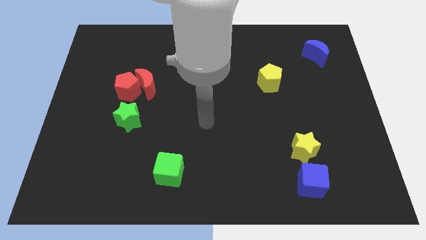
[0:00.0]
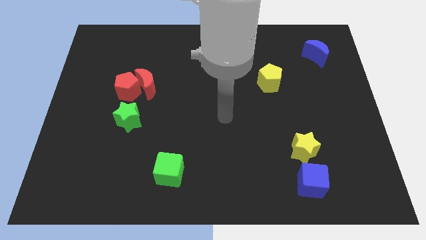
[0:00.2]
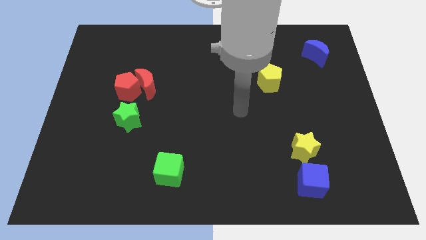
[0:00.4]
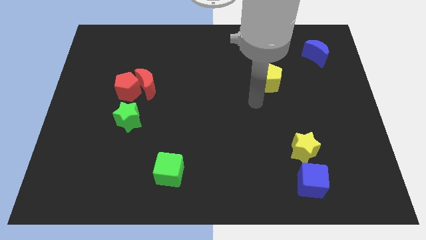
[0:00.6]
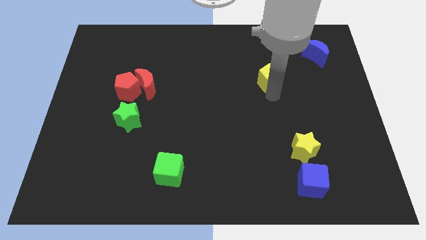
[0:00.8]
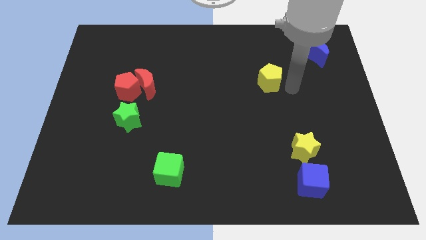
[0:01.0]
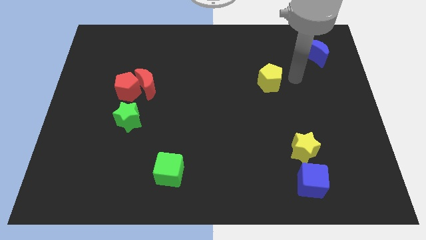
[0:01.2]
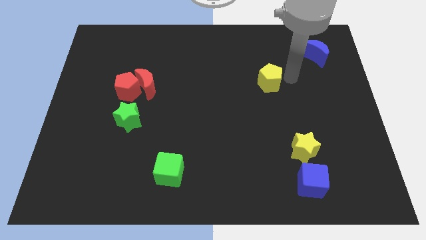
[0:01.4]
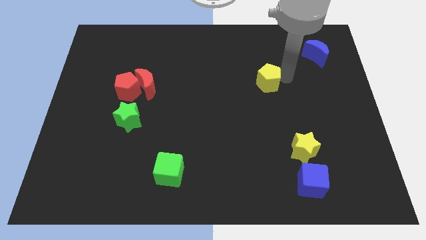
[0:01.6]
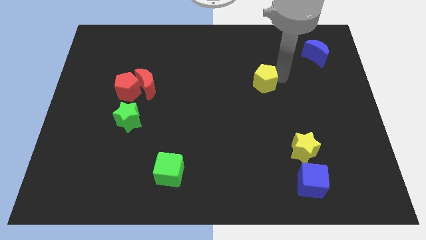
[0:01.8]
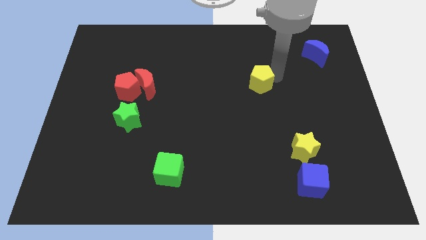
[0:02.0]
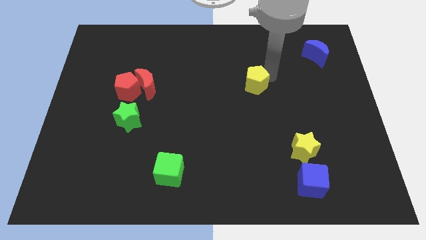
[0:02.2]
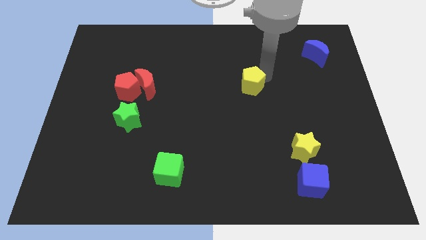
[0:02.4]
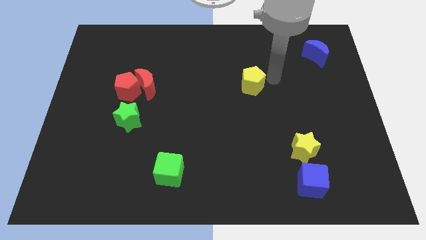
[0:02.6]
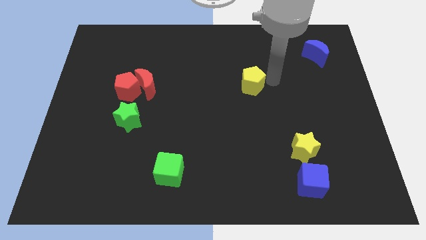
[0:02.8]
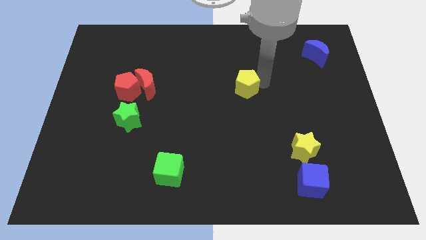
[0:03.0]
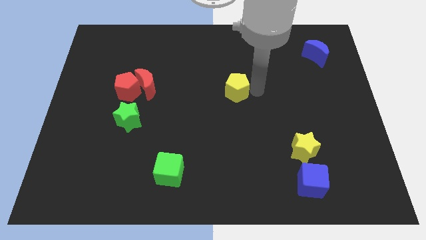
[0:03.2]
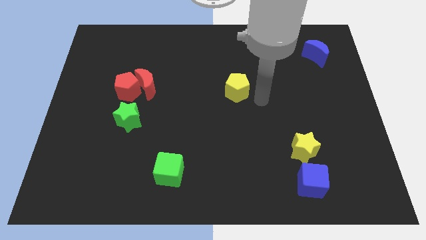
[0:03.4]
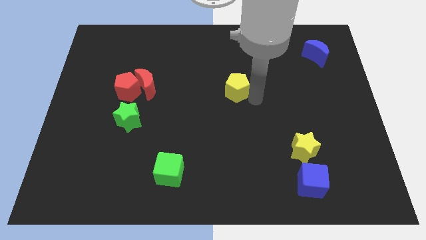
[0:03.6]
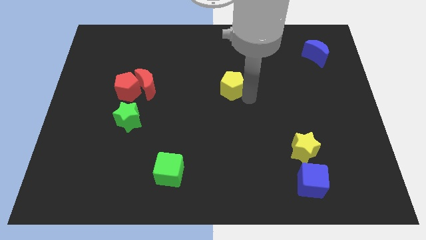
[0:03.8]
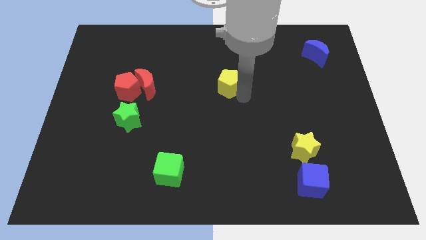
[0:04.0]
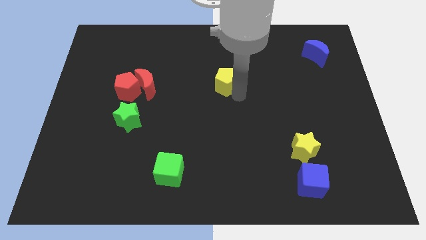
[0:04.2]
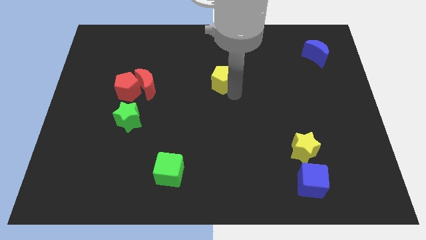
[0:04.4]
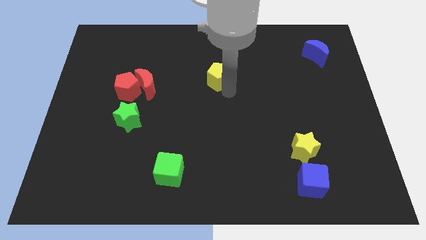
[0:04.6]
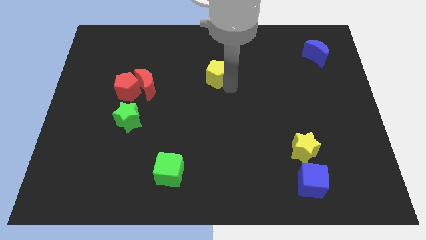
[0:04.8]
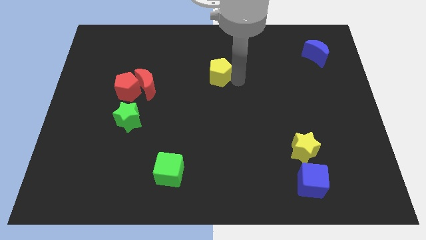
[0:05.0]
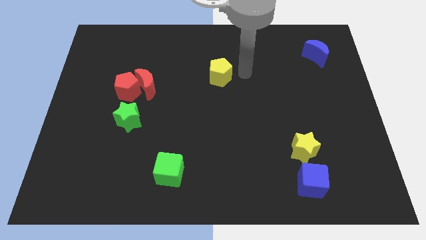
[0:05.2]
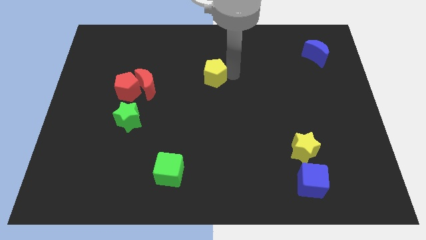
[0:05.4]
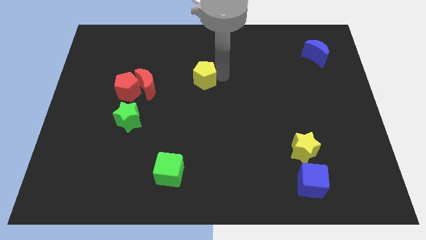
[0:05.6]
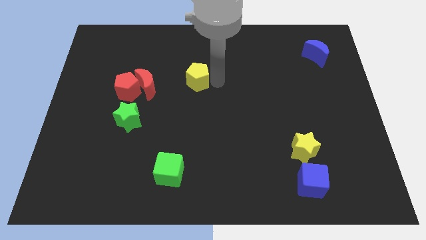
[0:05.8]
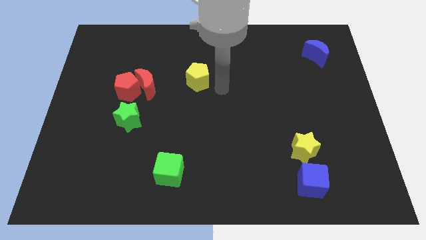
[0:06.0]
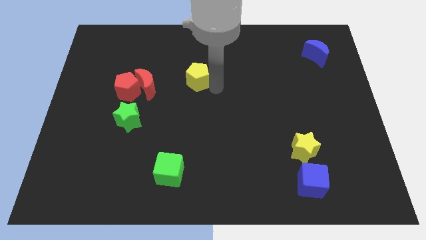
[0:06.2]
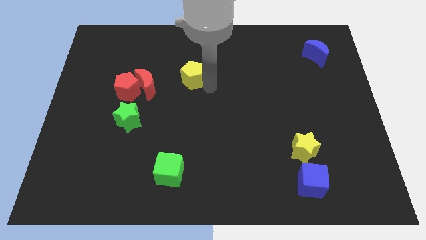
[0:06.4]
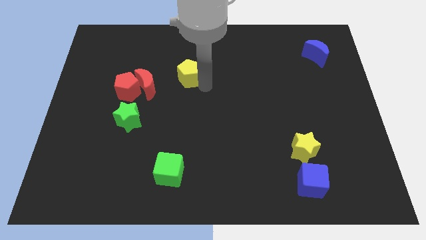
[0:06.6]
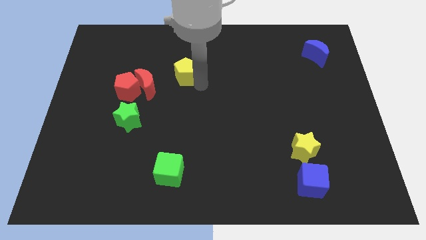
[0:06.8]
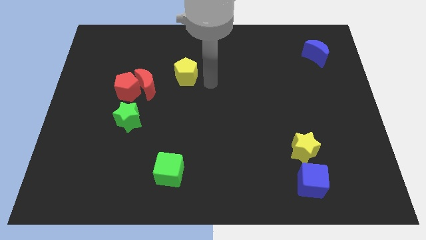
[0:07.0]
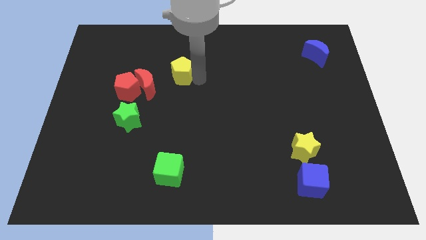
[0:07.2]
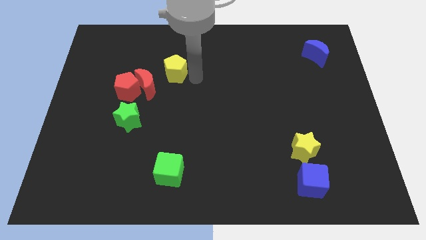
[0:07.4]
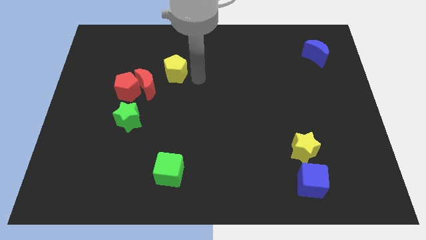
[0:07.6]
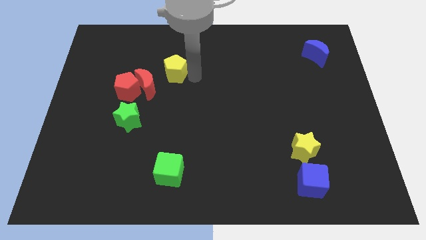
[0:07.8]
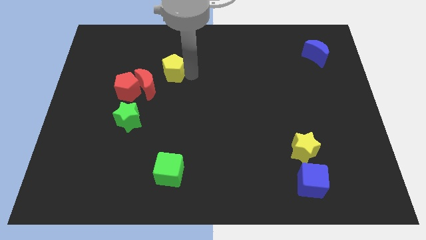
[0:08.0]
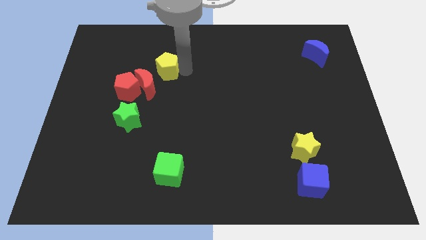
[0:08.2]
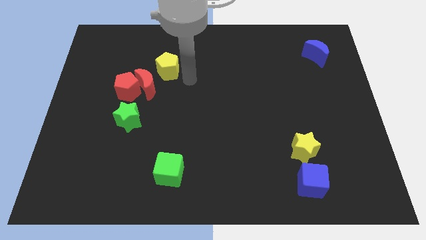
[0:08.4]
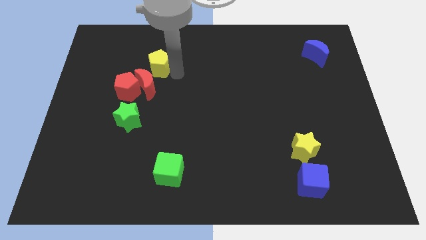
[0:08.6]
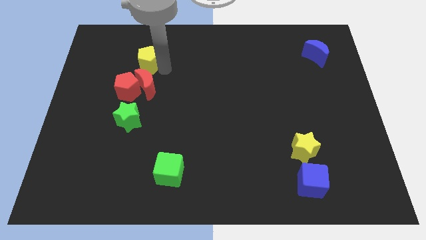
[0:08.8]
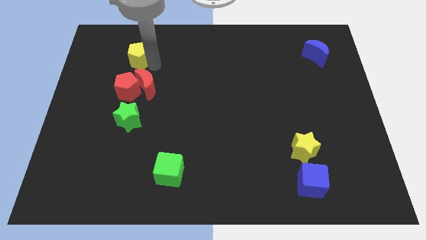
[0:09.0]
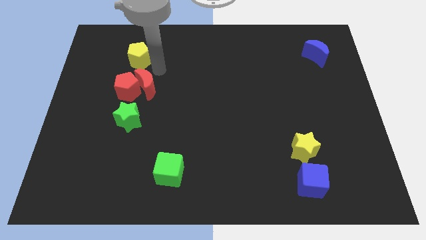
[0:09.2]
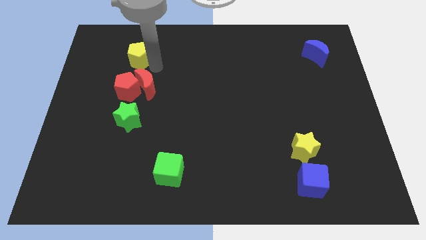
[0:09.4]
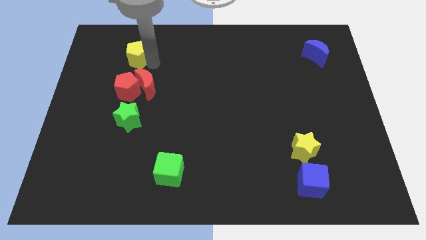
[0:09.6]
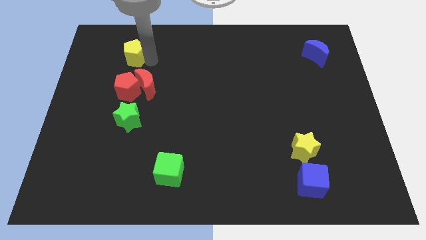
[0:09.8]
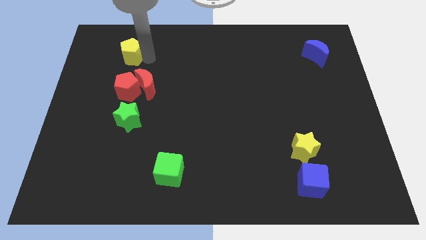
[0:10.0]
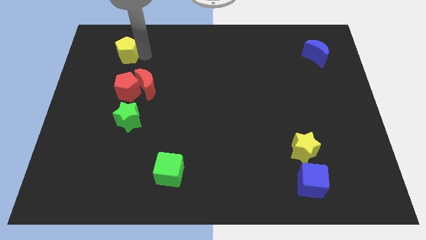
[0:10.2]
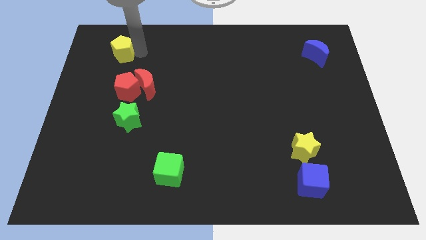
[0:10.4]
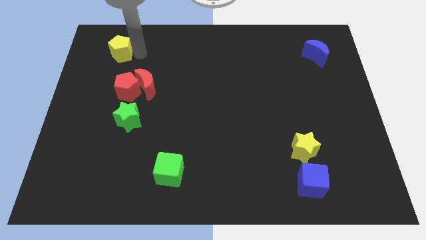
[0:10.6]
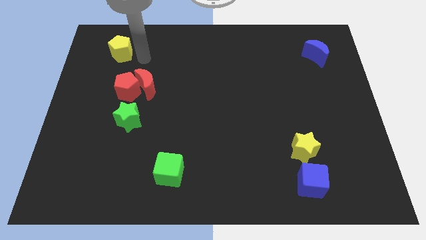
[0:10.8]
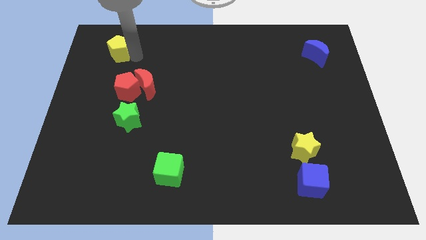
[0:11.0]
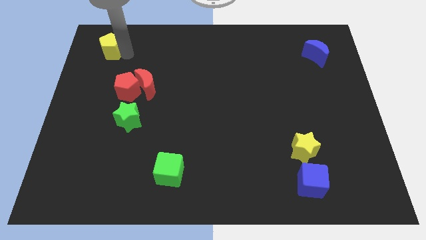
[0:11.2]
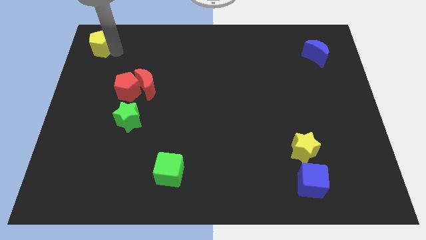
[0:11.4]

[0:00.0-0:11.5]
slide the yellow pentagon to the top left
